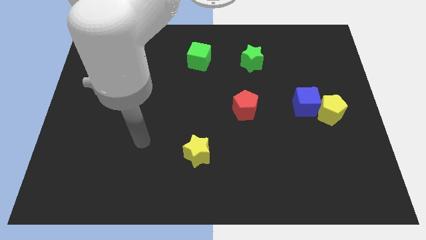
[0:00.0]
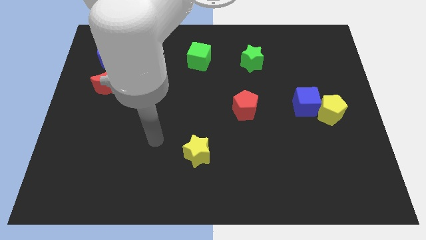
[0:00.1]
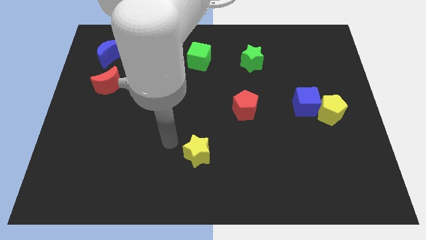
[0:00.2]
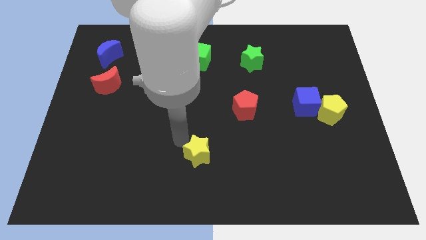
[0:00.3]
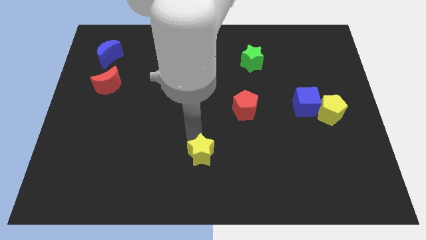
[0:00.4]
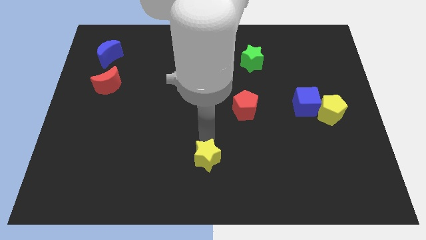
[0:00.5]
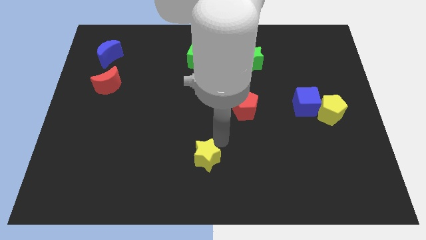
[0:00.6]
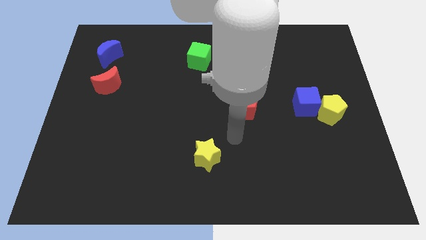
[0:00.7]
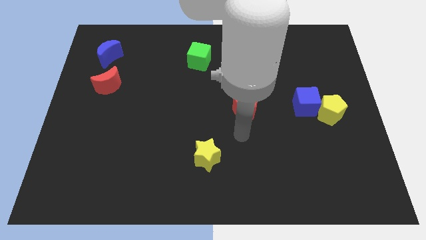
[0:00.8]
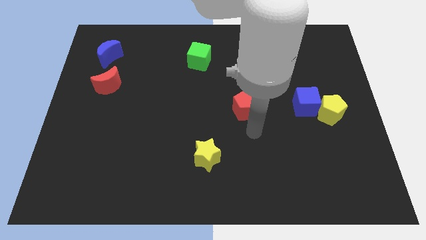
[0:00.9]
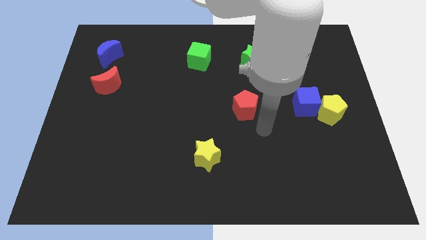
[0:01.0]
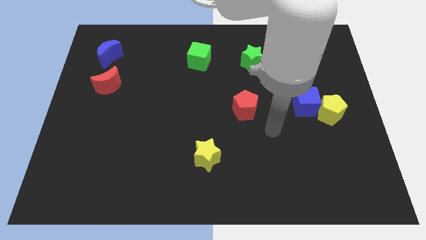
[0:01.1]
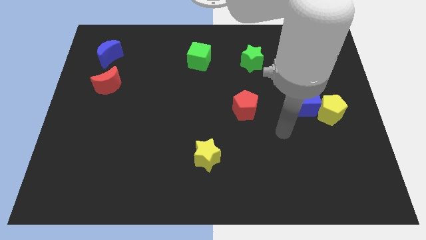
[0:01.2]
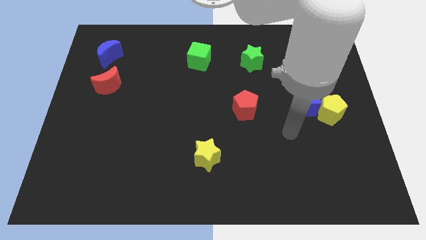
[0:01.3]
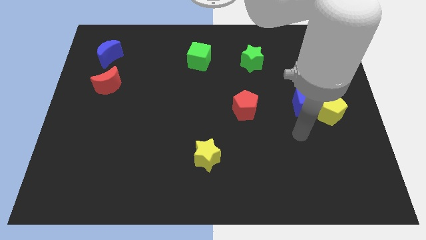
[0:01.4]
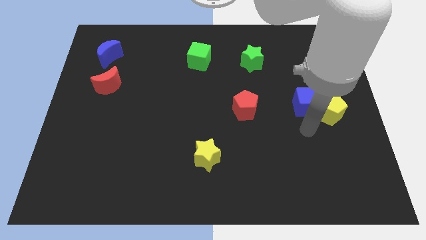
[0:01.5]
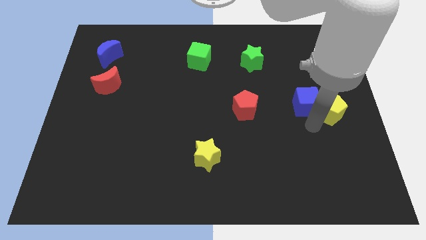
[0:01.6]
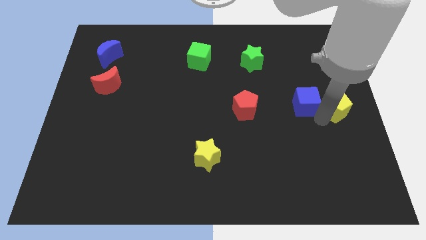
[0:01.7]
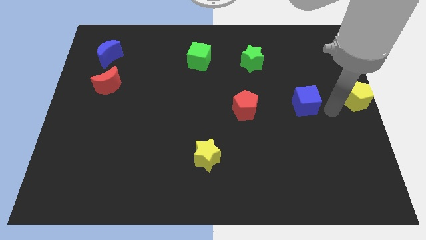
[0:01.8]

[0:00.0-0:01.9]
pull the blue cube apart from the yellow pentagon

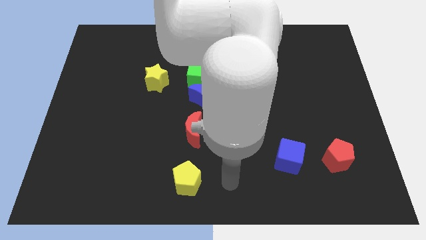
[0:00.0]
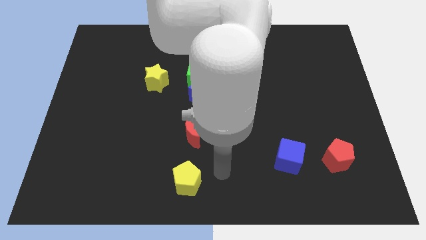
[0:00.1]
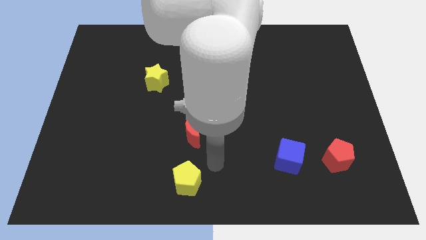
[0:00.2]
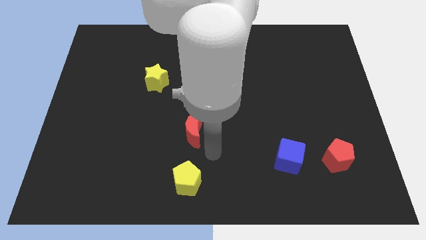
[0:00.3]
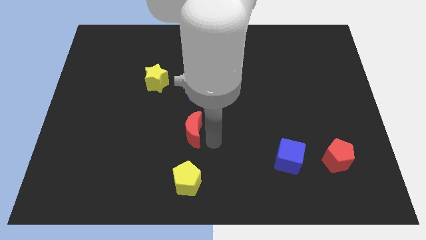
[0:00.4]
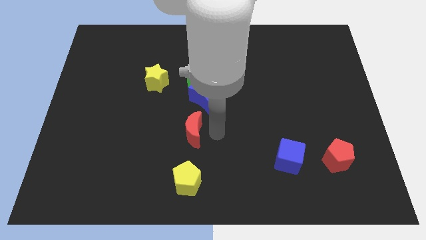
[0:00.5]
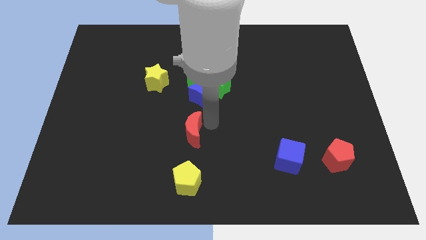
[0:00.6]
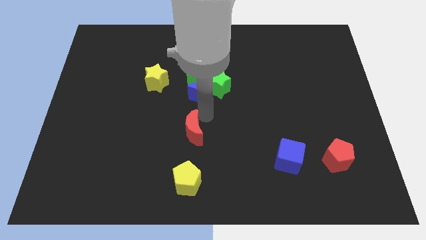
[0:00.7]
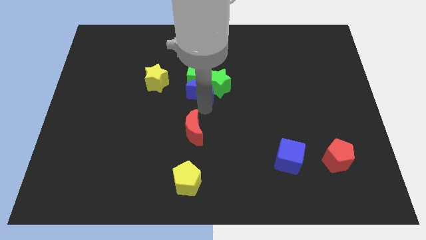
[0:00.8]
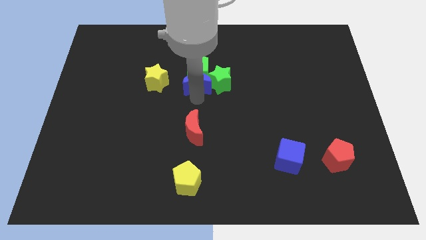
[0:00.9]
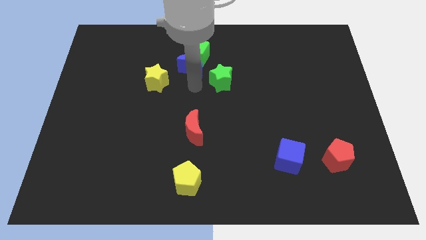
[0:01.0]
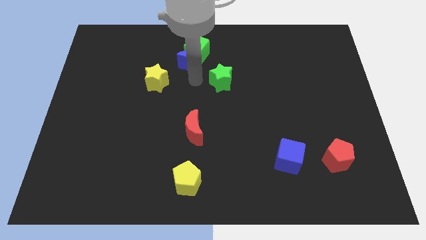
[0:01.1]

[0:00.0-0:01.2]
separate the green star from the green cube and blue moon

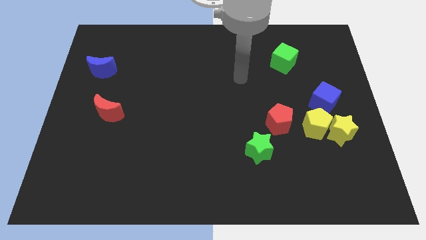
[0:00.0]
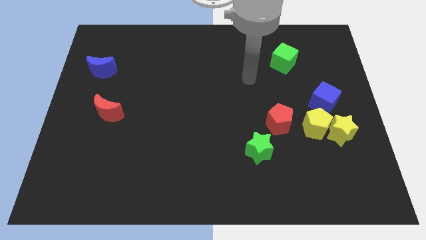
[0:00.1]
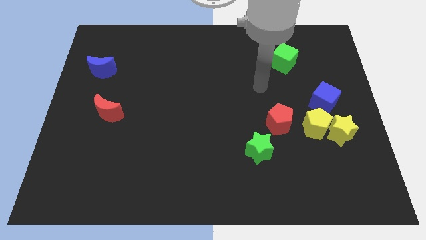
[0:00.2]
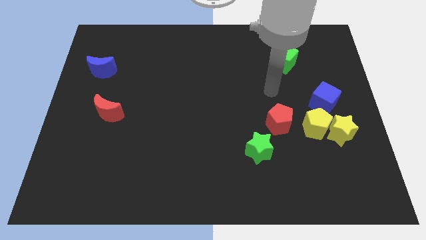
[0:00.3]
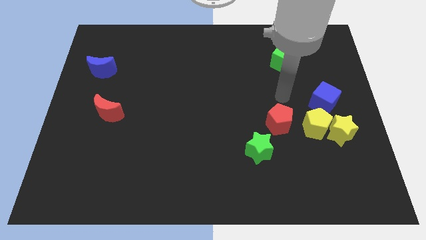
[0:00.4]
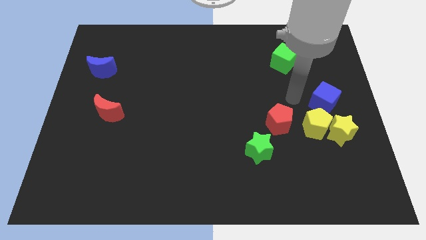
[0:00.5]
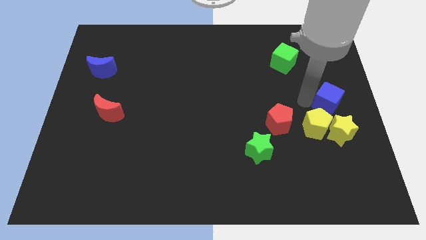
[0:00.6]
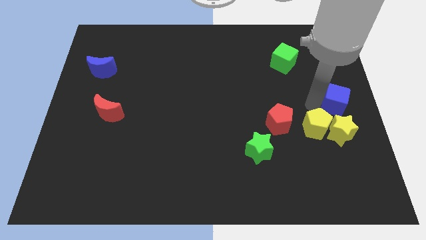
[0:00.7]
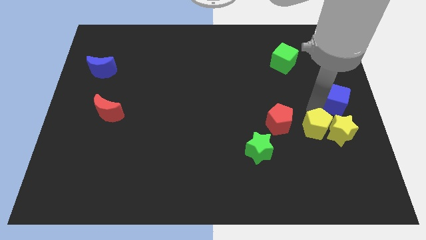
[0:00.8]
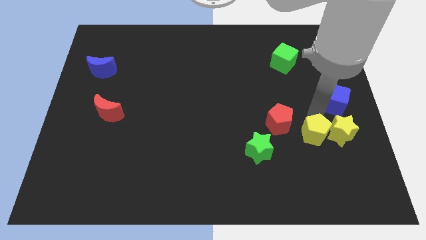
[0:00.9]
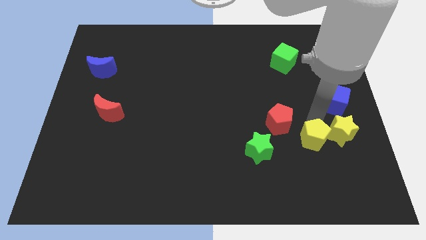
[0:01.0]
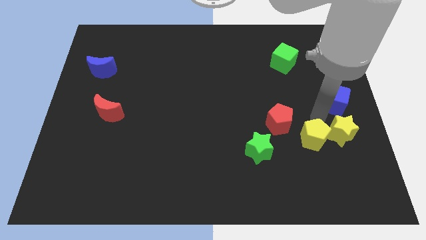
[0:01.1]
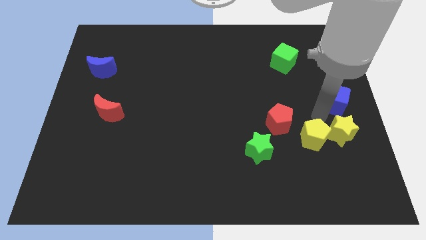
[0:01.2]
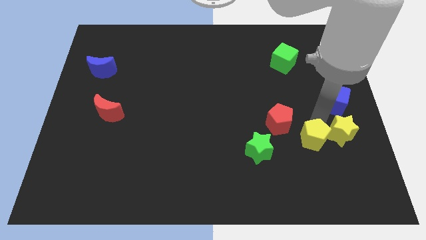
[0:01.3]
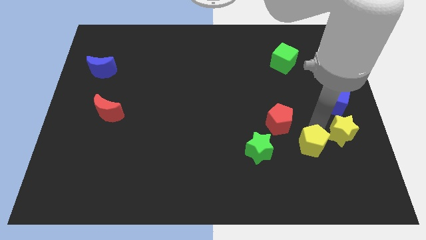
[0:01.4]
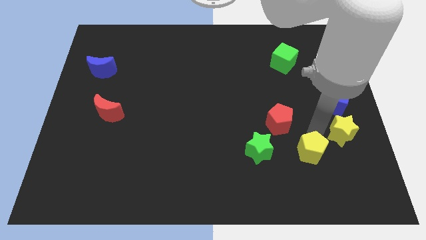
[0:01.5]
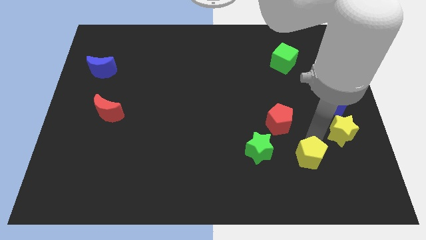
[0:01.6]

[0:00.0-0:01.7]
pull the yellow pentagon apart from the yellow star, blue cube, and red pentagon

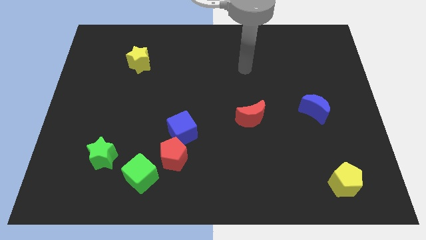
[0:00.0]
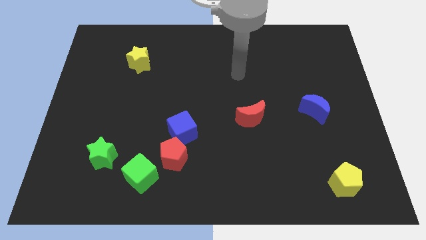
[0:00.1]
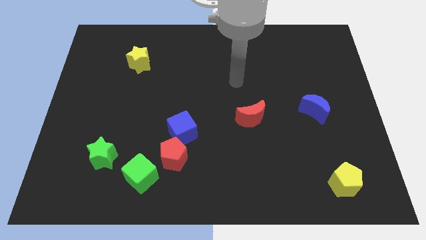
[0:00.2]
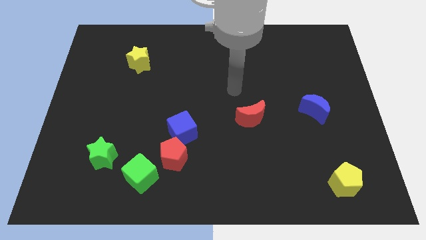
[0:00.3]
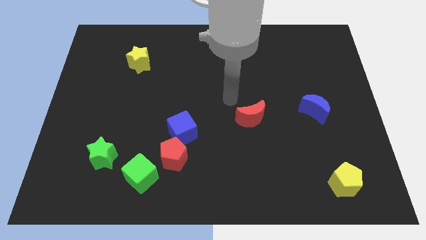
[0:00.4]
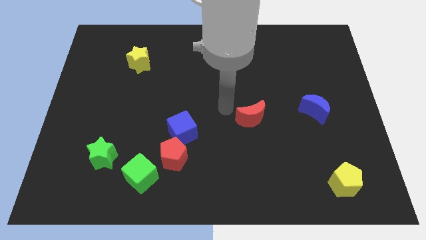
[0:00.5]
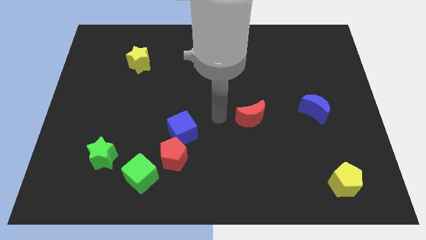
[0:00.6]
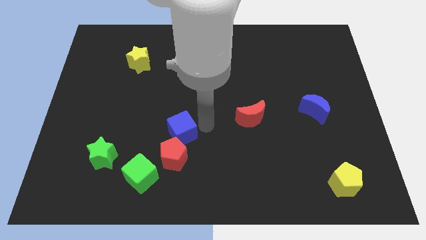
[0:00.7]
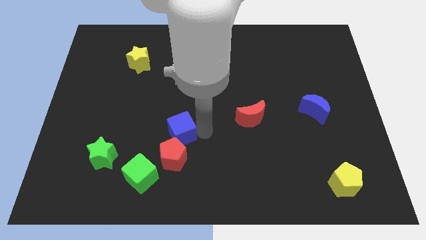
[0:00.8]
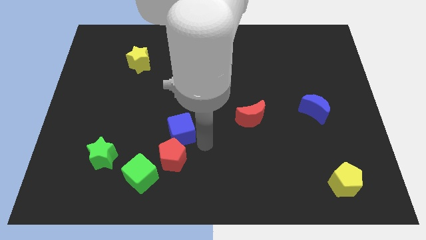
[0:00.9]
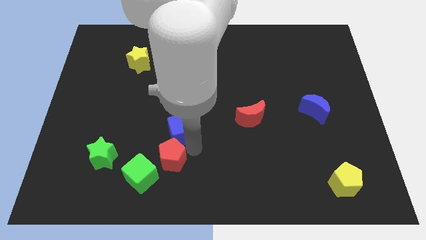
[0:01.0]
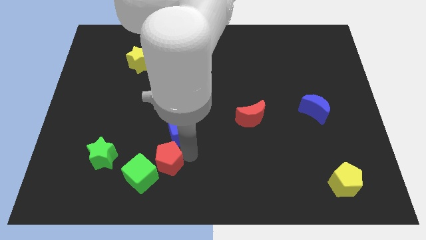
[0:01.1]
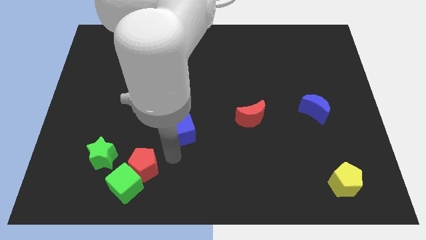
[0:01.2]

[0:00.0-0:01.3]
separate the blue cube from the red pentagon

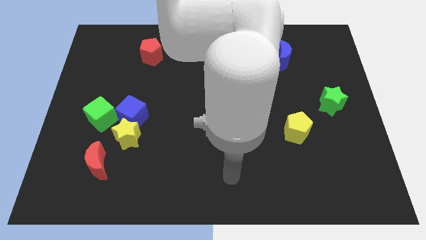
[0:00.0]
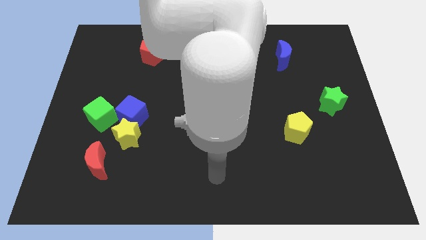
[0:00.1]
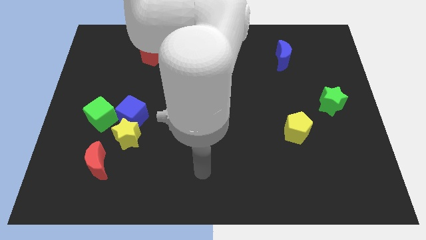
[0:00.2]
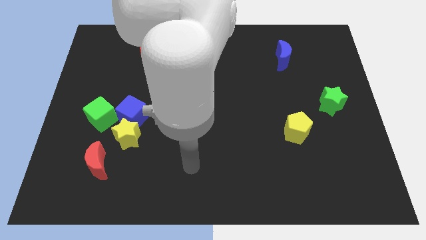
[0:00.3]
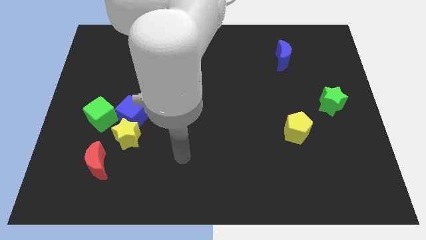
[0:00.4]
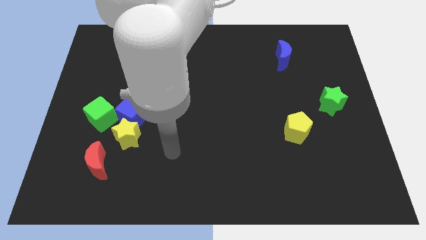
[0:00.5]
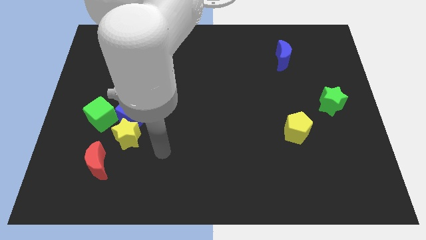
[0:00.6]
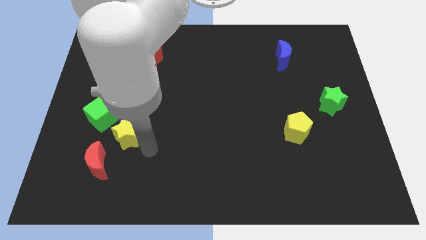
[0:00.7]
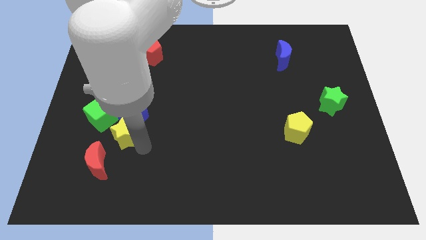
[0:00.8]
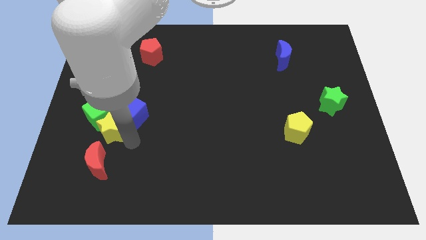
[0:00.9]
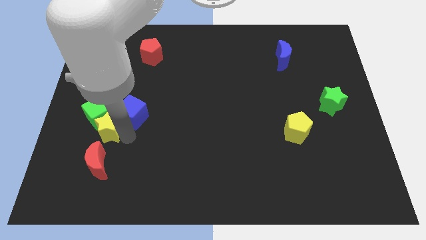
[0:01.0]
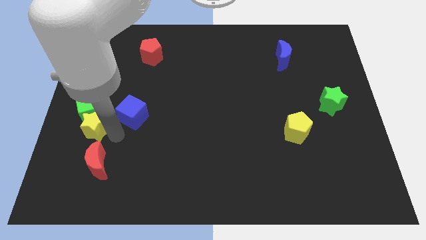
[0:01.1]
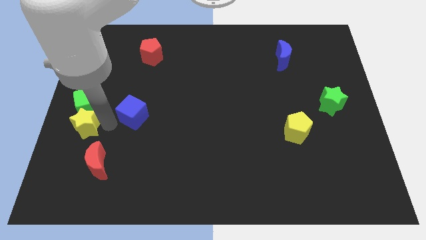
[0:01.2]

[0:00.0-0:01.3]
pull the blue cube apart from the yellow star and green cube

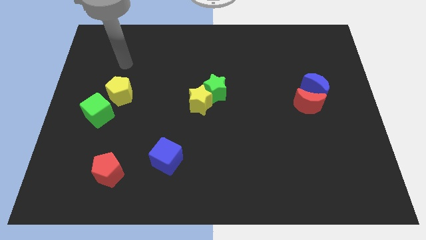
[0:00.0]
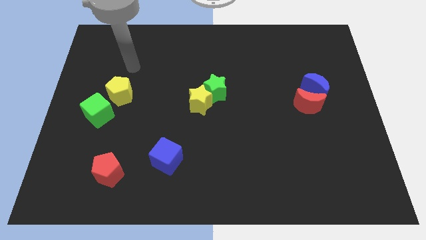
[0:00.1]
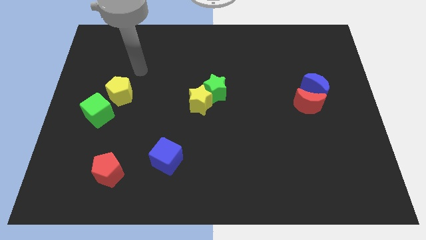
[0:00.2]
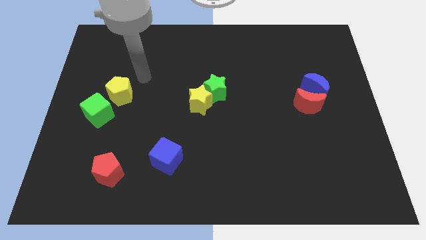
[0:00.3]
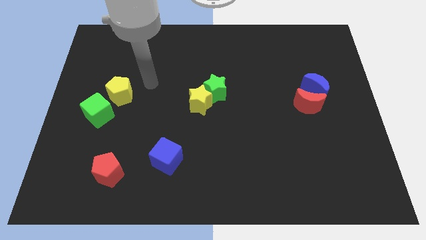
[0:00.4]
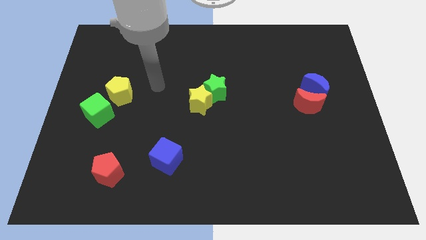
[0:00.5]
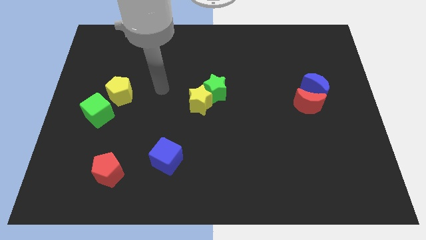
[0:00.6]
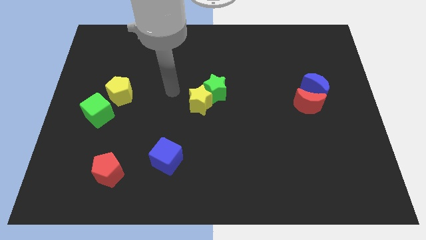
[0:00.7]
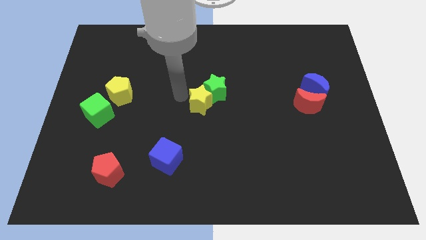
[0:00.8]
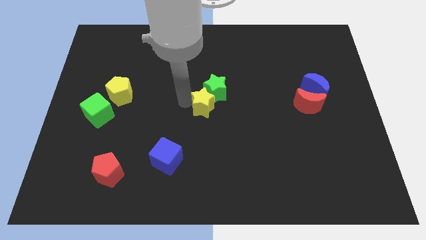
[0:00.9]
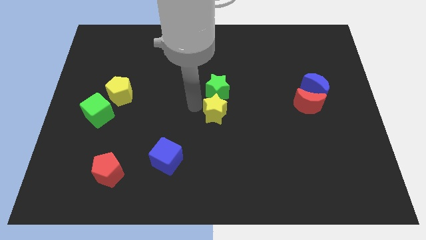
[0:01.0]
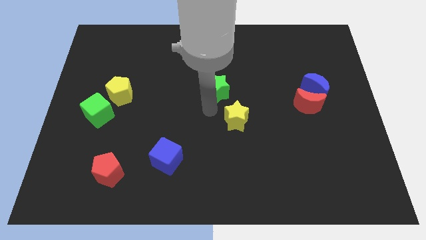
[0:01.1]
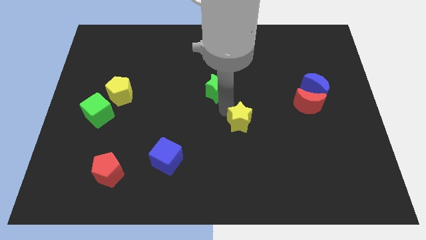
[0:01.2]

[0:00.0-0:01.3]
pull the green star apart from the yellow star

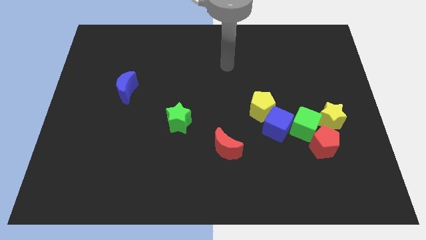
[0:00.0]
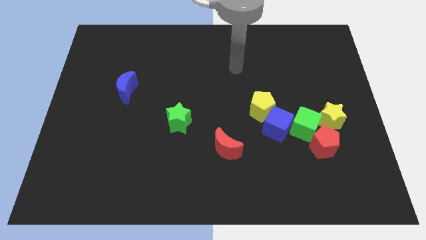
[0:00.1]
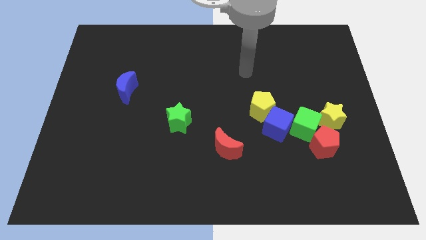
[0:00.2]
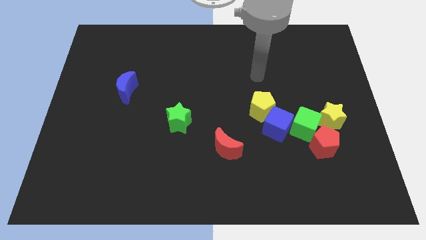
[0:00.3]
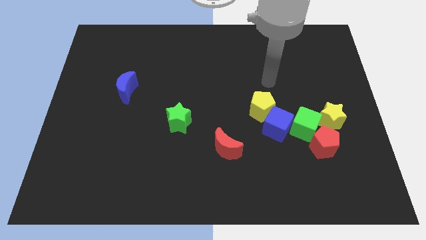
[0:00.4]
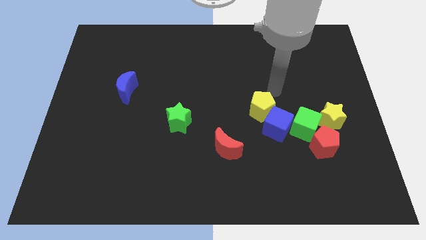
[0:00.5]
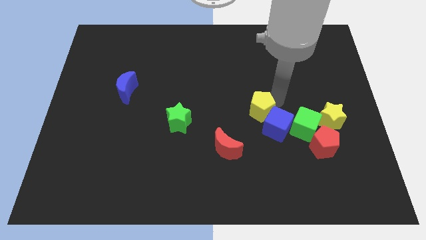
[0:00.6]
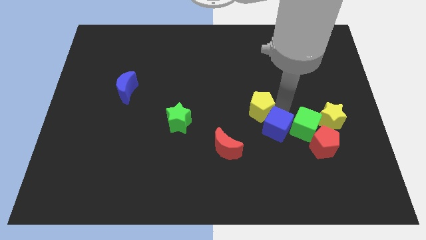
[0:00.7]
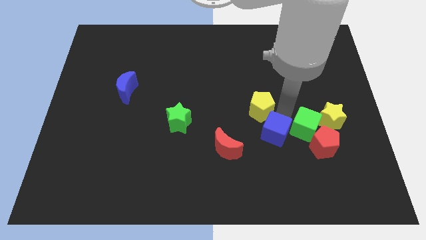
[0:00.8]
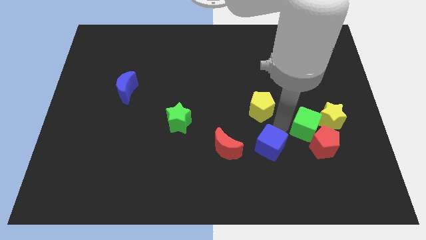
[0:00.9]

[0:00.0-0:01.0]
move the yellow pentagon away from the blue cube
